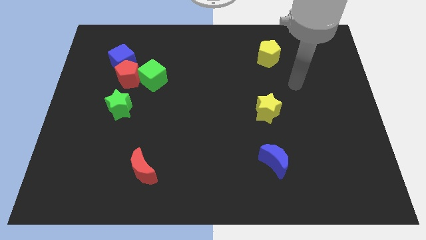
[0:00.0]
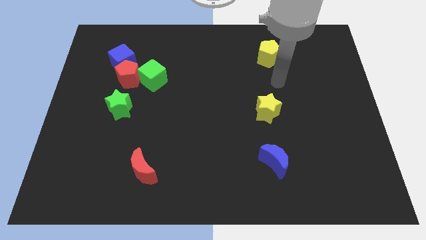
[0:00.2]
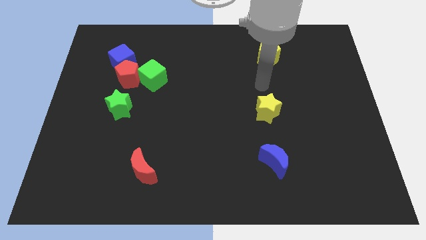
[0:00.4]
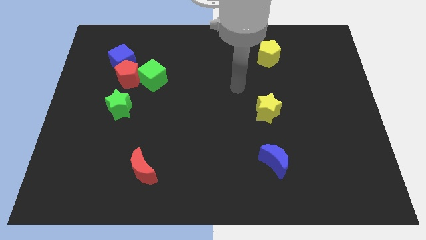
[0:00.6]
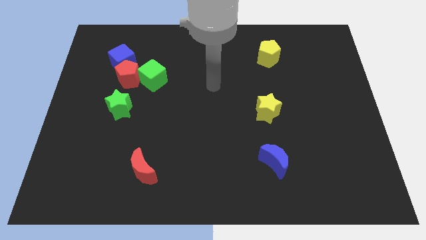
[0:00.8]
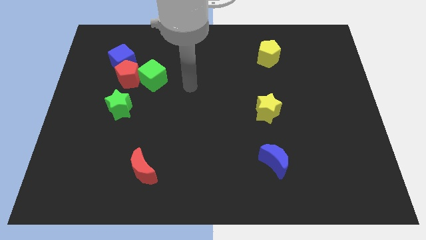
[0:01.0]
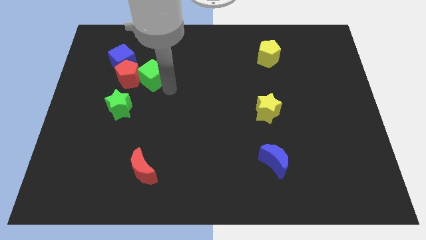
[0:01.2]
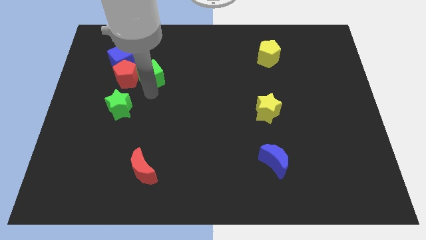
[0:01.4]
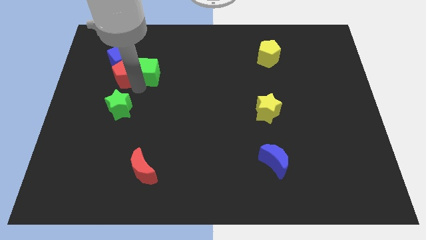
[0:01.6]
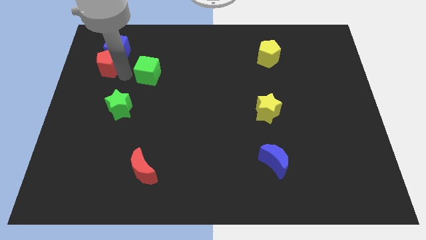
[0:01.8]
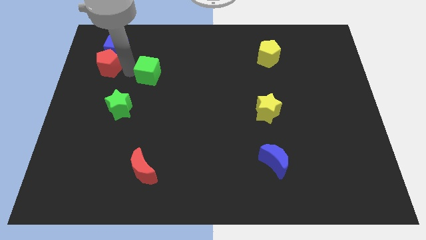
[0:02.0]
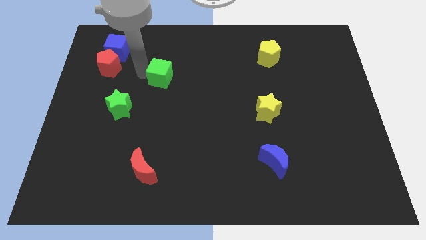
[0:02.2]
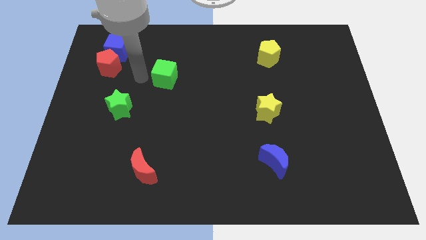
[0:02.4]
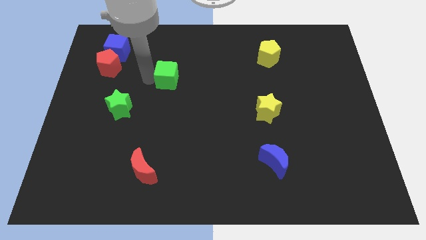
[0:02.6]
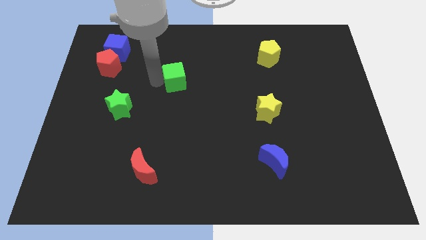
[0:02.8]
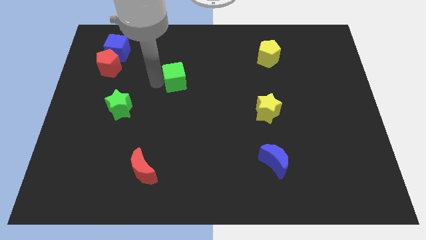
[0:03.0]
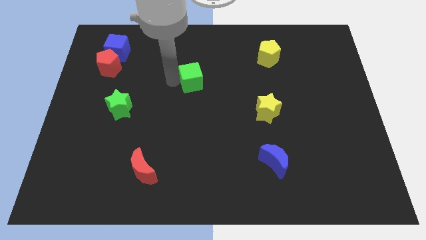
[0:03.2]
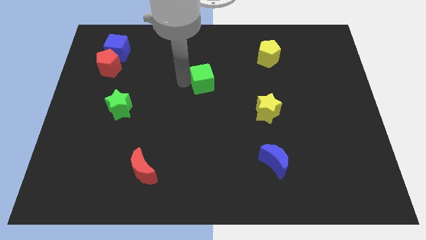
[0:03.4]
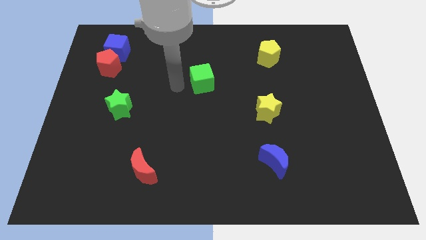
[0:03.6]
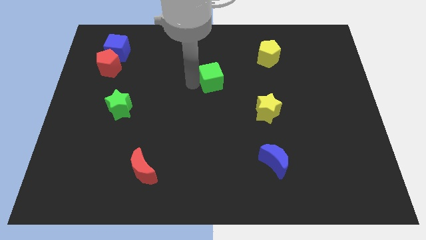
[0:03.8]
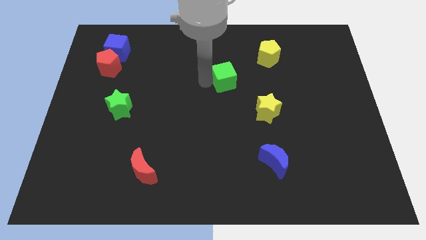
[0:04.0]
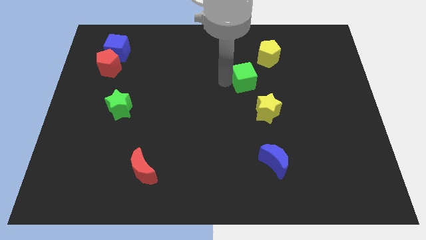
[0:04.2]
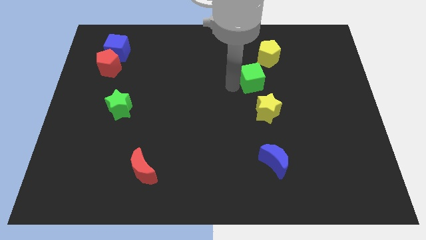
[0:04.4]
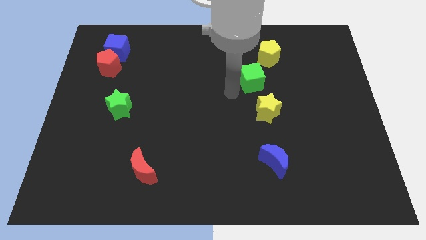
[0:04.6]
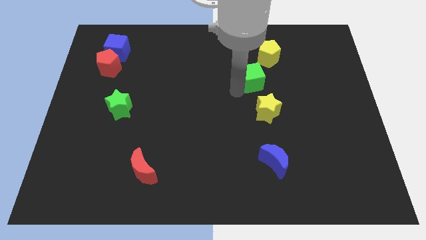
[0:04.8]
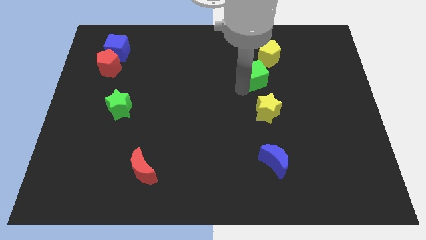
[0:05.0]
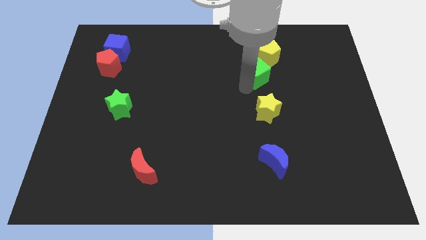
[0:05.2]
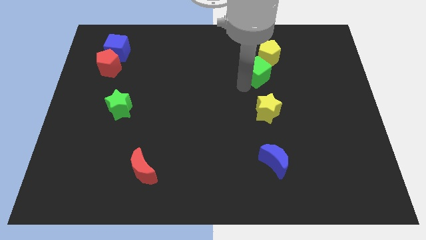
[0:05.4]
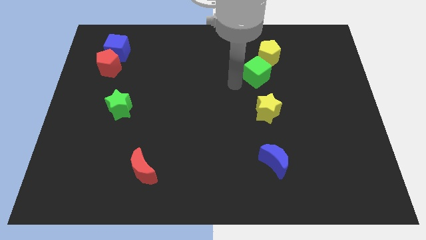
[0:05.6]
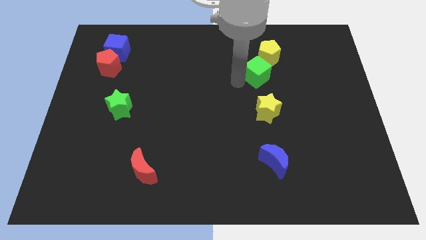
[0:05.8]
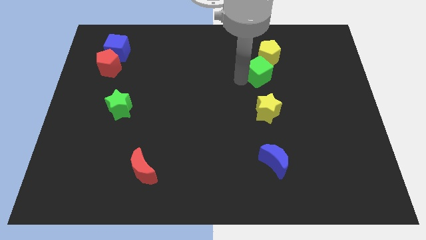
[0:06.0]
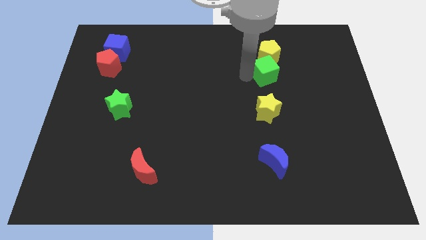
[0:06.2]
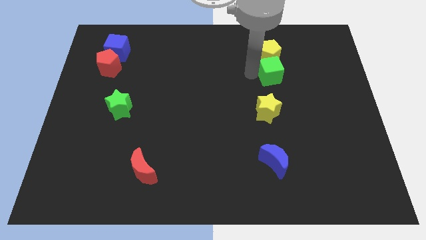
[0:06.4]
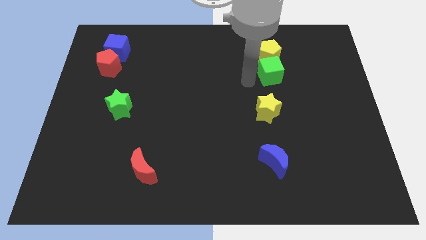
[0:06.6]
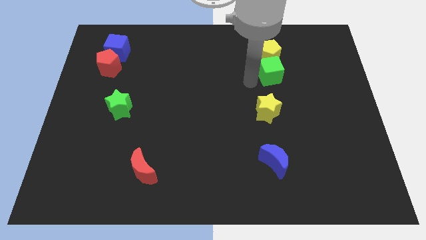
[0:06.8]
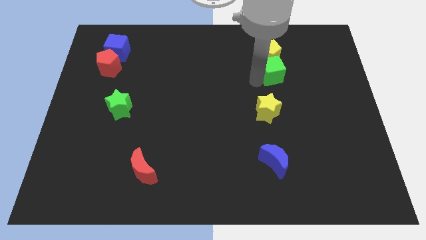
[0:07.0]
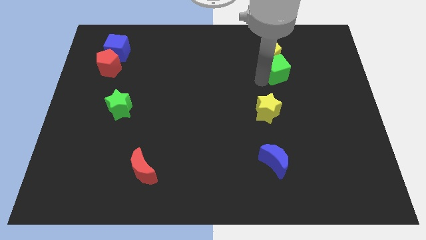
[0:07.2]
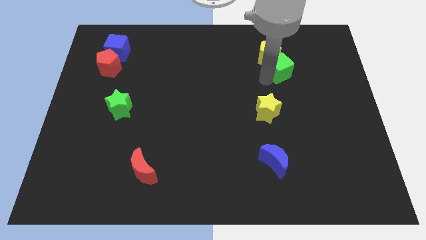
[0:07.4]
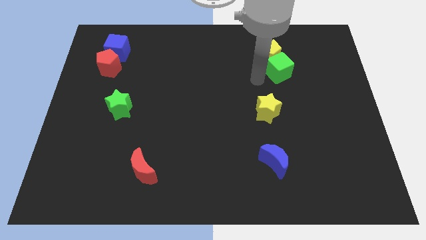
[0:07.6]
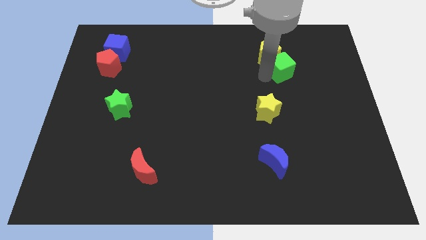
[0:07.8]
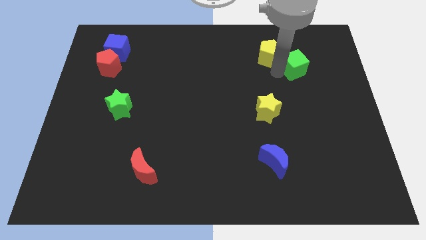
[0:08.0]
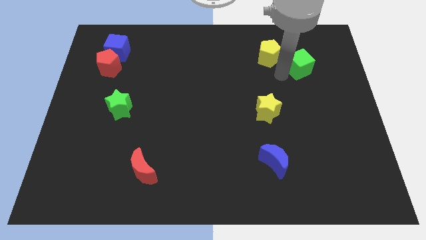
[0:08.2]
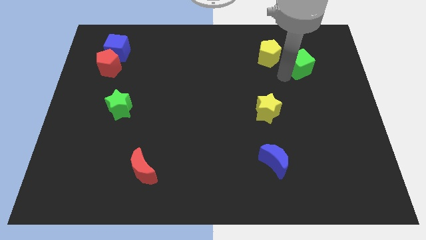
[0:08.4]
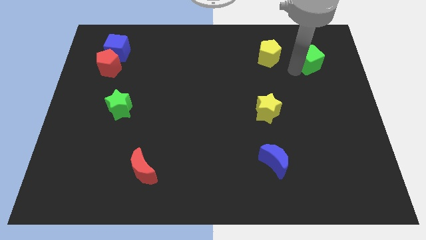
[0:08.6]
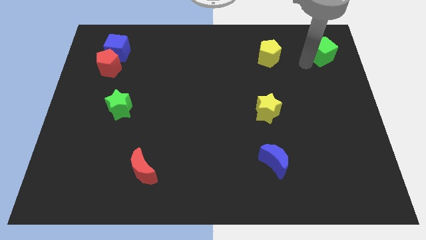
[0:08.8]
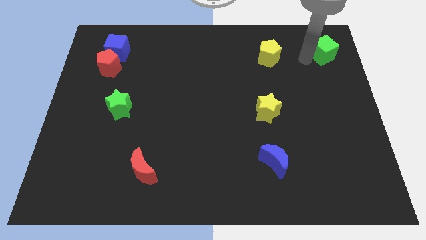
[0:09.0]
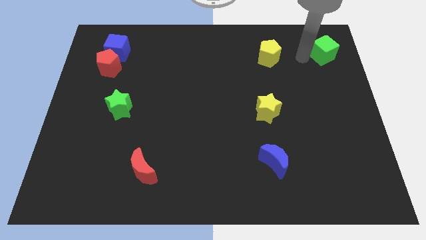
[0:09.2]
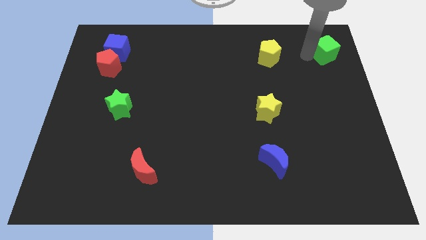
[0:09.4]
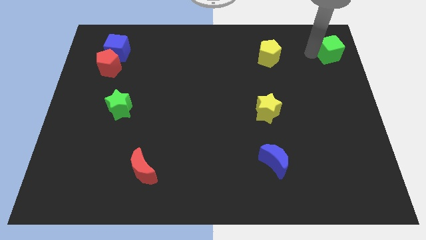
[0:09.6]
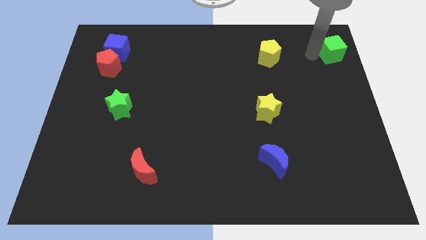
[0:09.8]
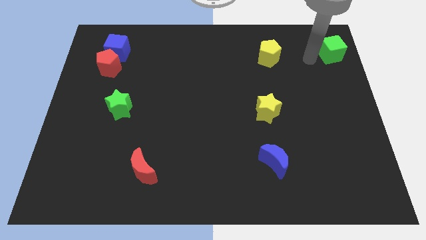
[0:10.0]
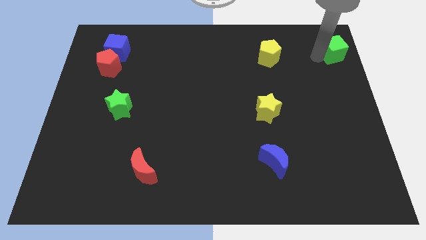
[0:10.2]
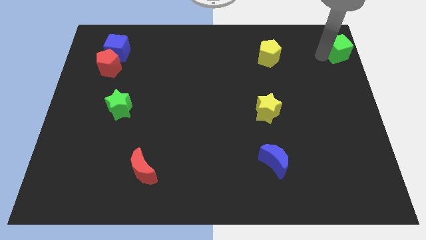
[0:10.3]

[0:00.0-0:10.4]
slide the green cube to the top right of the board

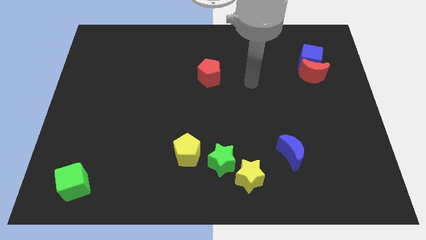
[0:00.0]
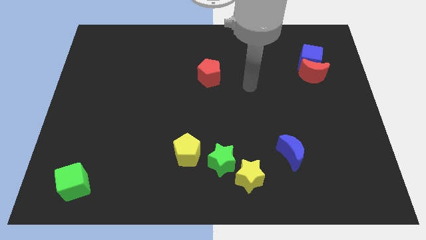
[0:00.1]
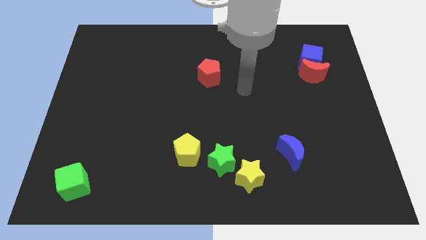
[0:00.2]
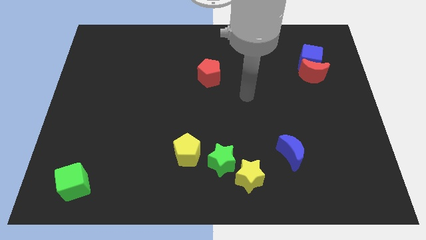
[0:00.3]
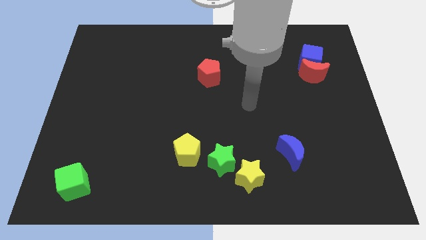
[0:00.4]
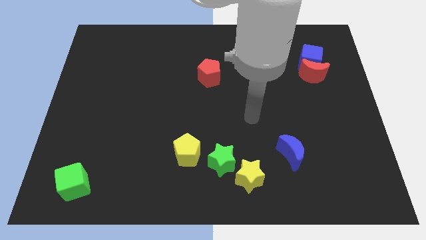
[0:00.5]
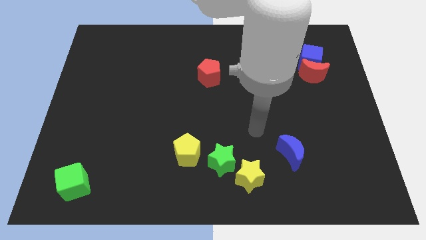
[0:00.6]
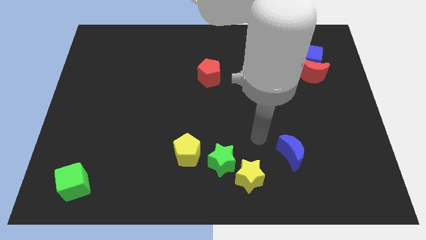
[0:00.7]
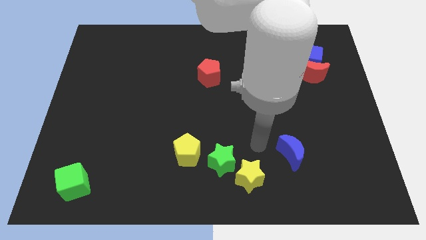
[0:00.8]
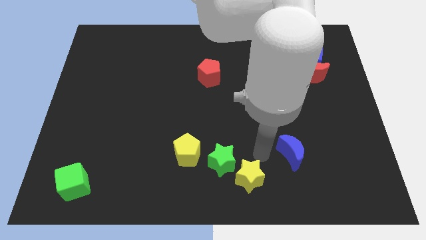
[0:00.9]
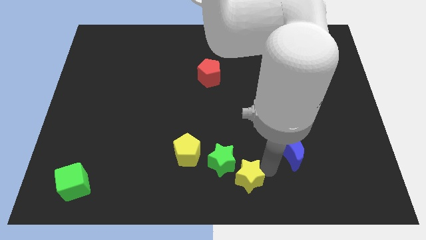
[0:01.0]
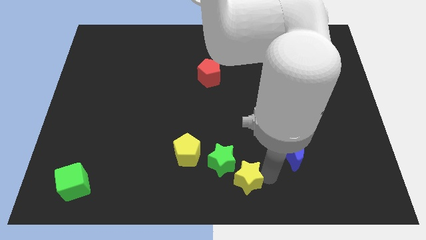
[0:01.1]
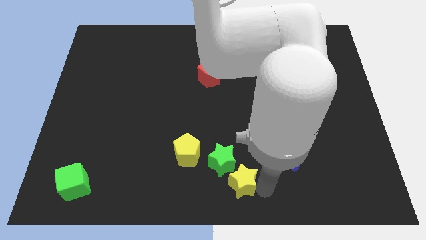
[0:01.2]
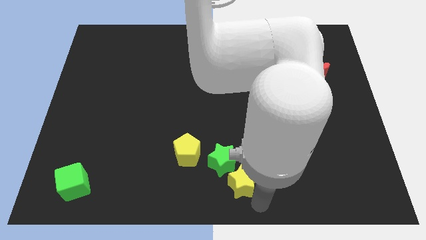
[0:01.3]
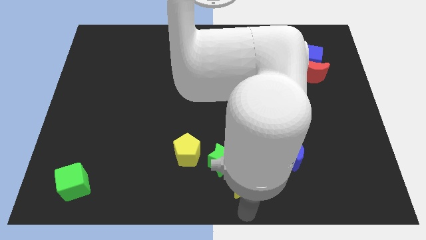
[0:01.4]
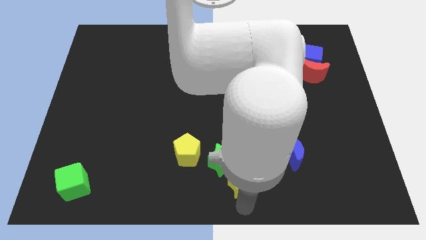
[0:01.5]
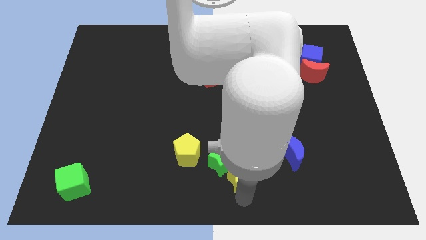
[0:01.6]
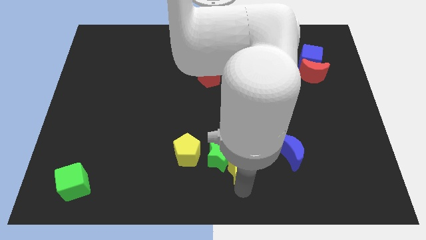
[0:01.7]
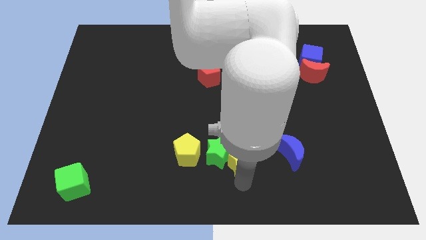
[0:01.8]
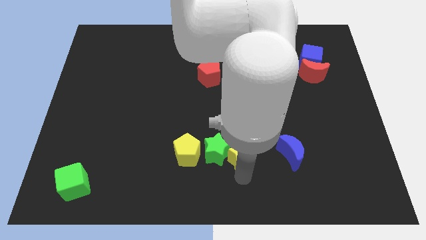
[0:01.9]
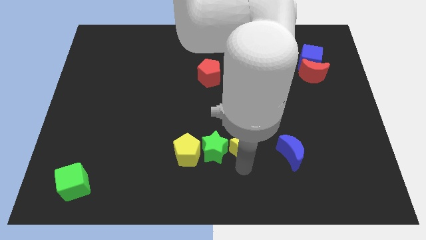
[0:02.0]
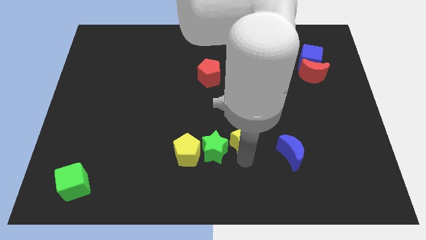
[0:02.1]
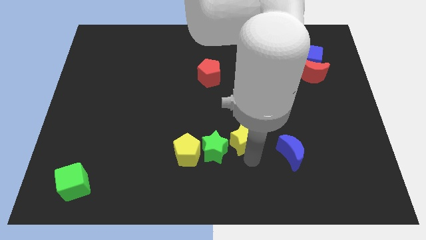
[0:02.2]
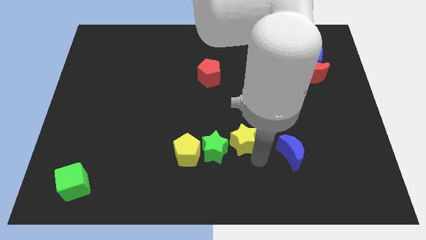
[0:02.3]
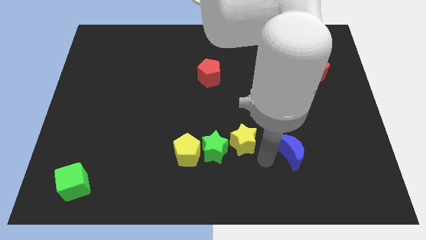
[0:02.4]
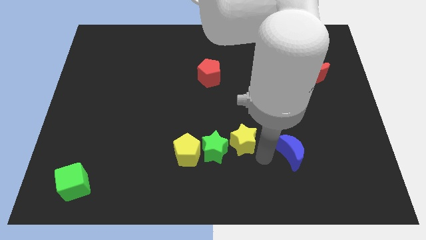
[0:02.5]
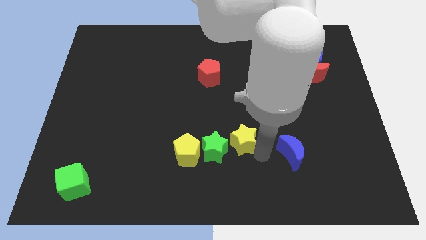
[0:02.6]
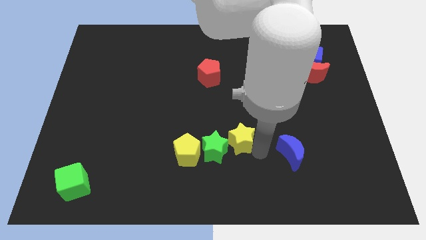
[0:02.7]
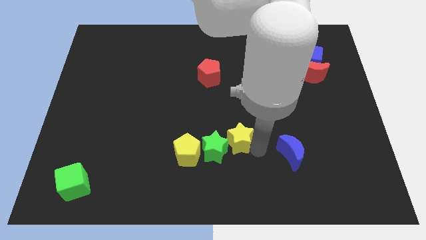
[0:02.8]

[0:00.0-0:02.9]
move the yellow star to the center
